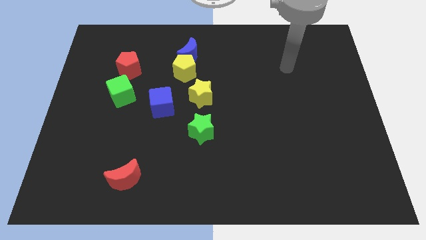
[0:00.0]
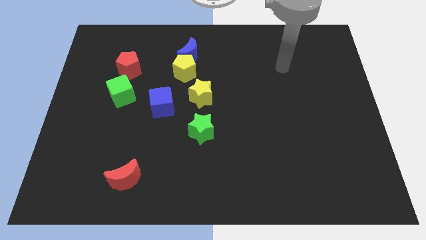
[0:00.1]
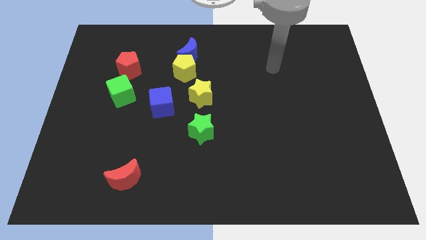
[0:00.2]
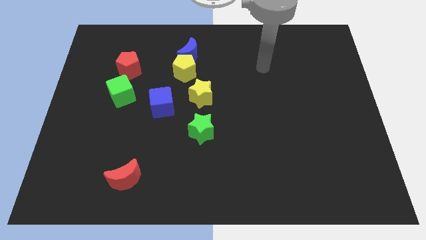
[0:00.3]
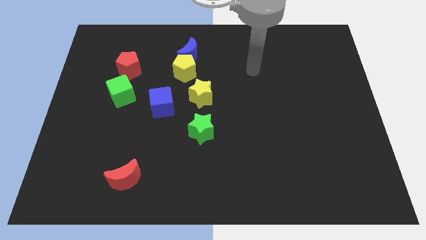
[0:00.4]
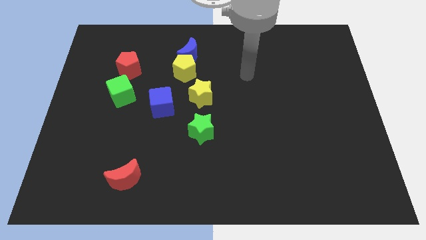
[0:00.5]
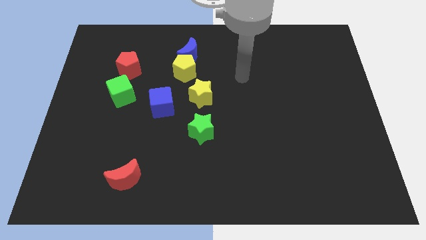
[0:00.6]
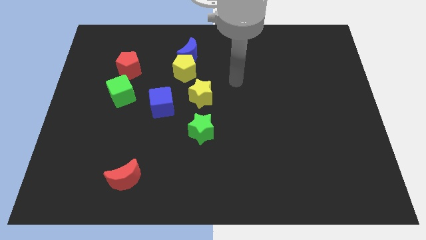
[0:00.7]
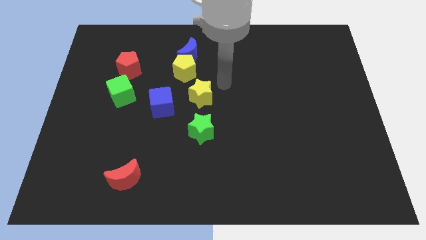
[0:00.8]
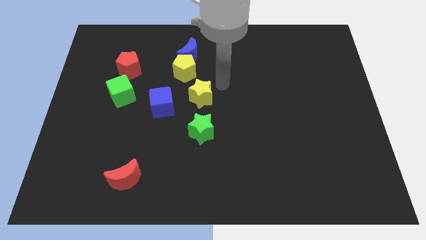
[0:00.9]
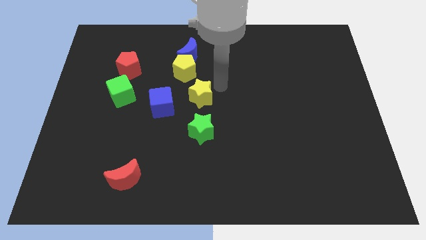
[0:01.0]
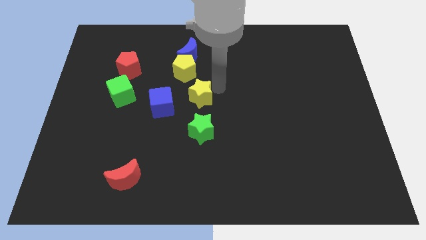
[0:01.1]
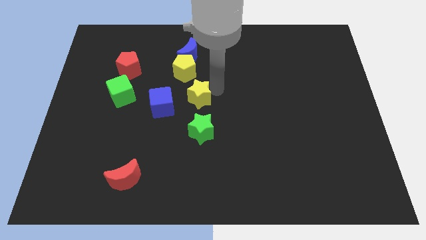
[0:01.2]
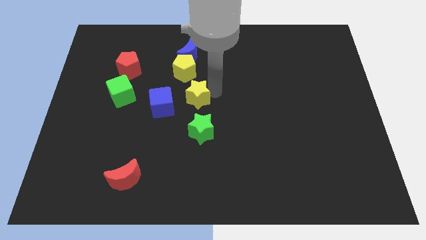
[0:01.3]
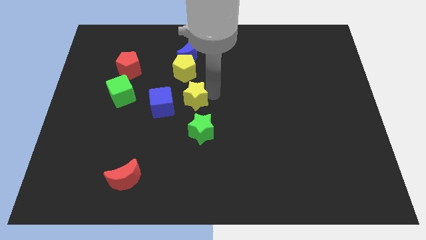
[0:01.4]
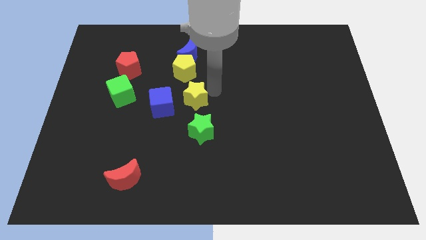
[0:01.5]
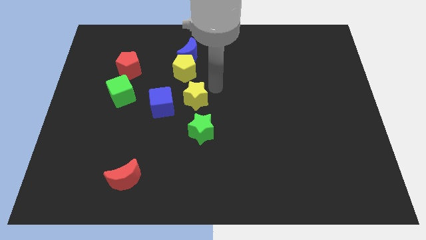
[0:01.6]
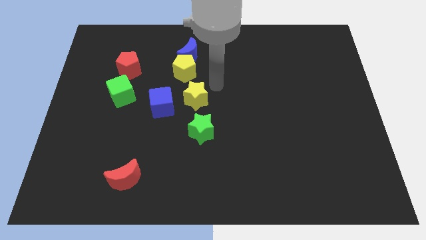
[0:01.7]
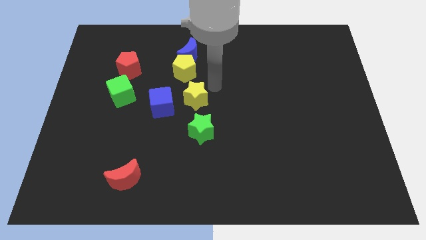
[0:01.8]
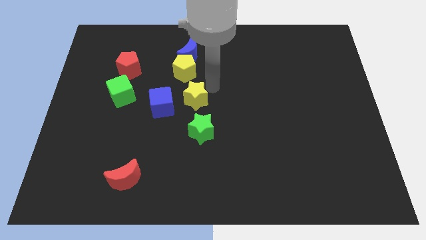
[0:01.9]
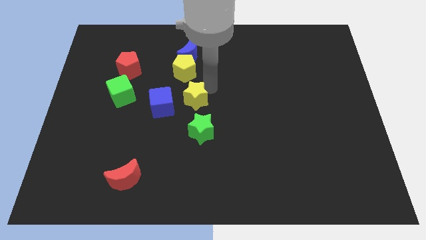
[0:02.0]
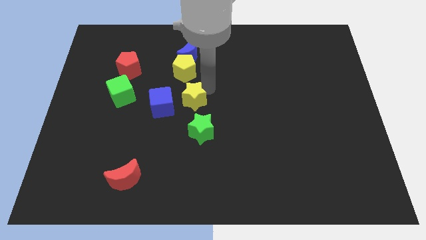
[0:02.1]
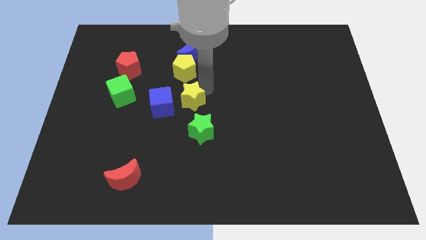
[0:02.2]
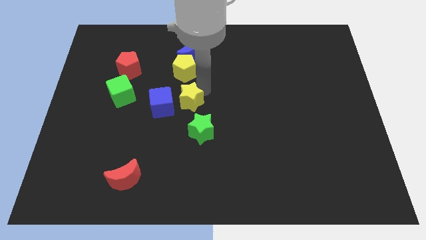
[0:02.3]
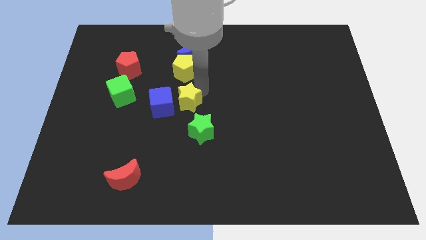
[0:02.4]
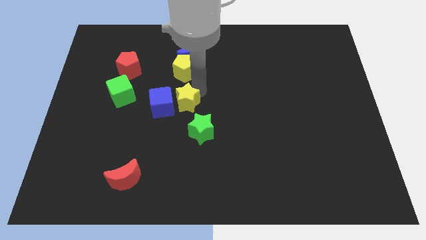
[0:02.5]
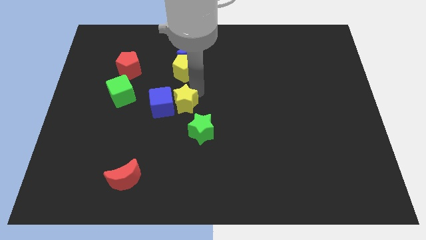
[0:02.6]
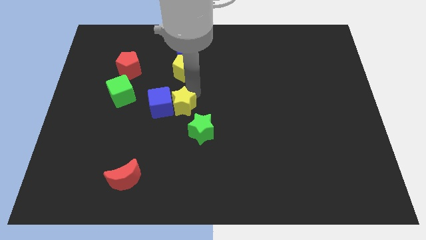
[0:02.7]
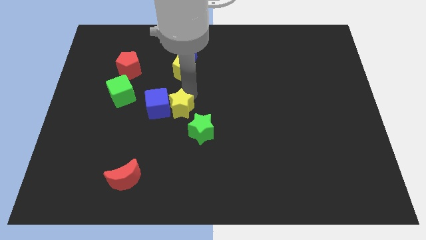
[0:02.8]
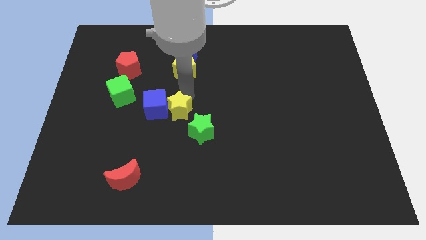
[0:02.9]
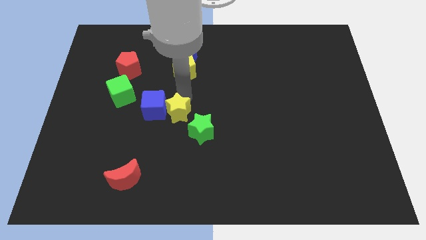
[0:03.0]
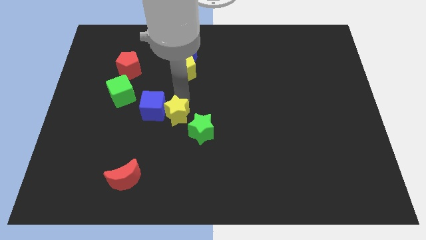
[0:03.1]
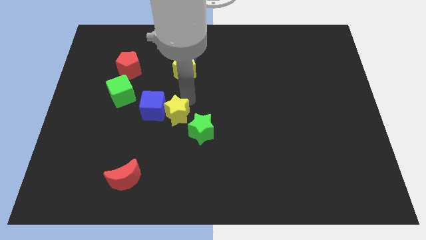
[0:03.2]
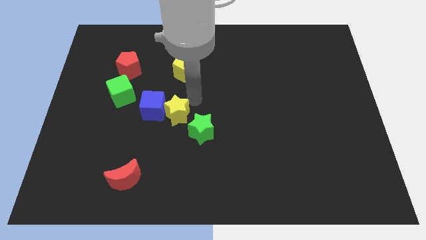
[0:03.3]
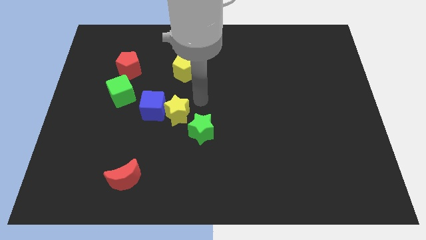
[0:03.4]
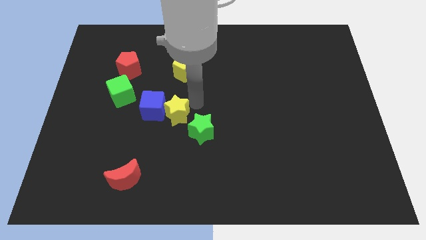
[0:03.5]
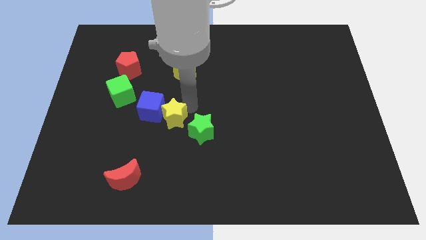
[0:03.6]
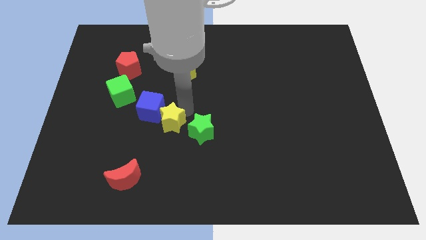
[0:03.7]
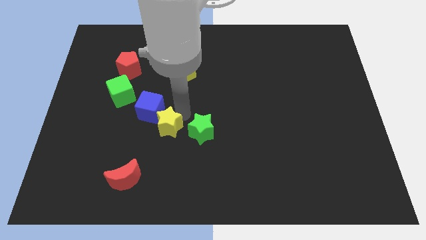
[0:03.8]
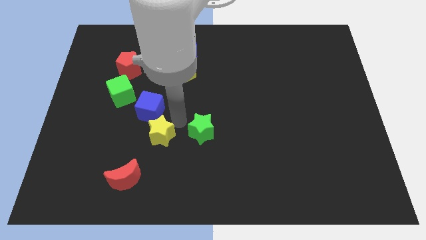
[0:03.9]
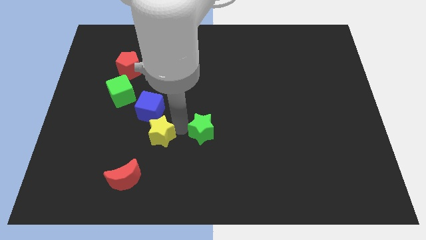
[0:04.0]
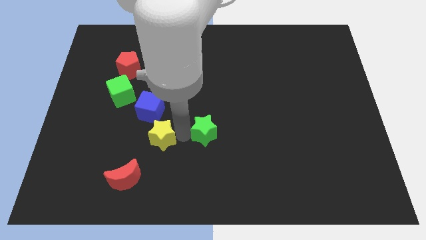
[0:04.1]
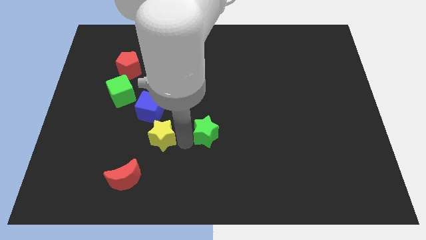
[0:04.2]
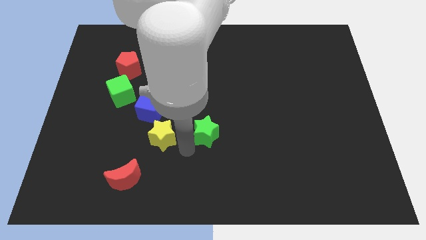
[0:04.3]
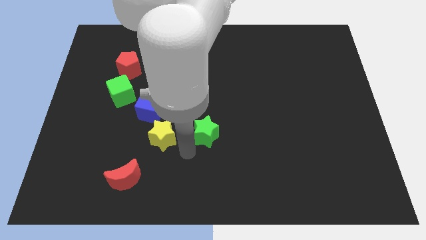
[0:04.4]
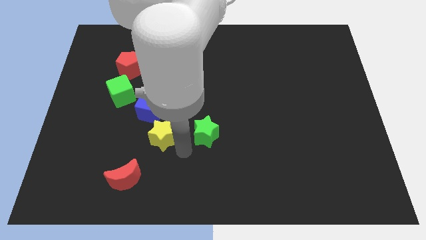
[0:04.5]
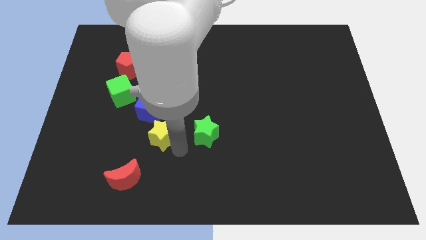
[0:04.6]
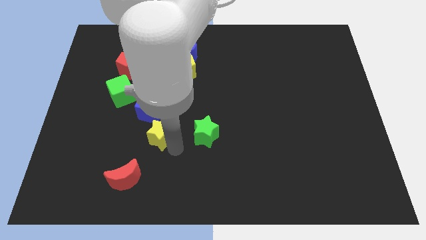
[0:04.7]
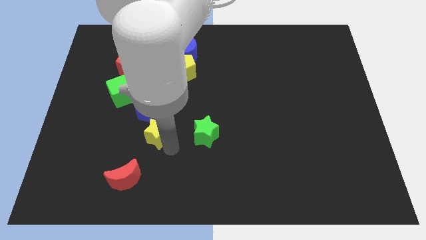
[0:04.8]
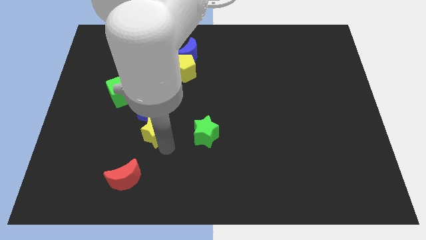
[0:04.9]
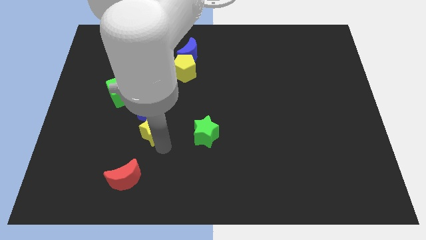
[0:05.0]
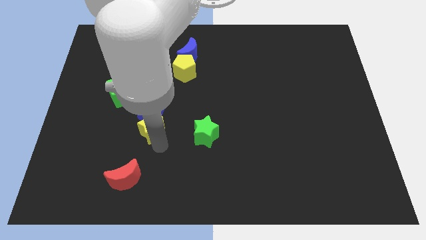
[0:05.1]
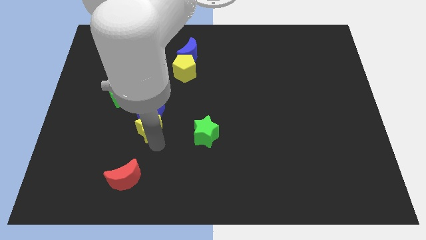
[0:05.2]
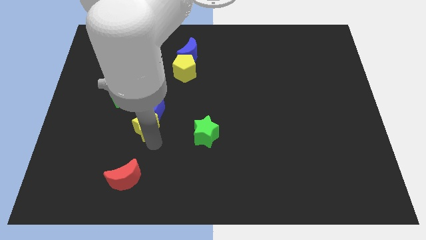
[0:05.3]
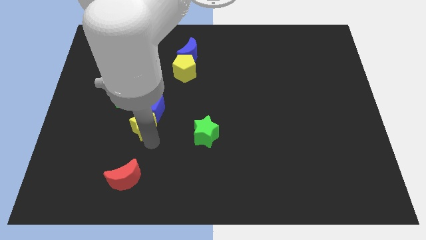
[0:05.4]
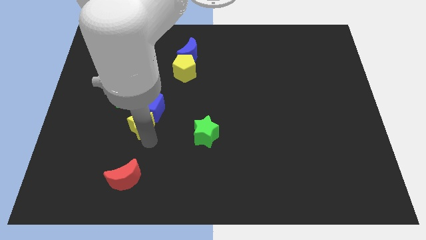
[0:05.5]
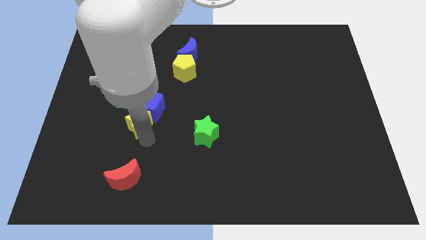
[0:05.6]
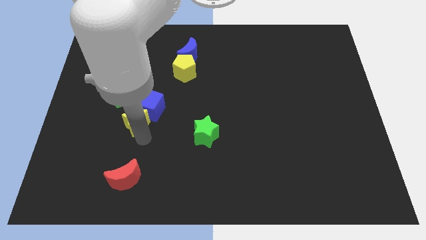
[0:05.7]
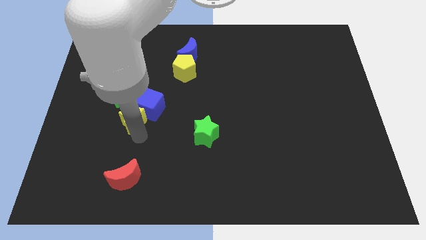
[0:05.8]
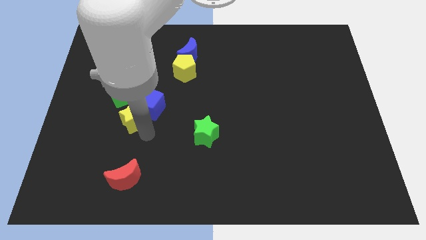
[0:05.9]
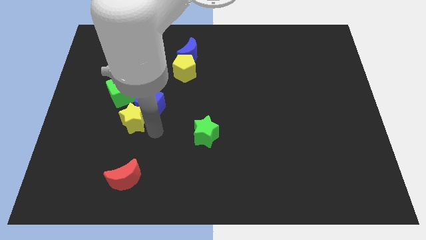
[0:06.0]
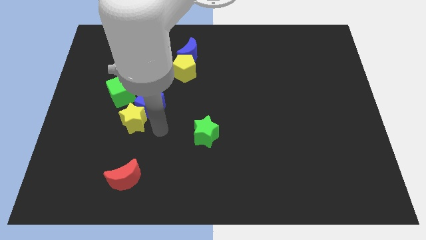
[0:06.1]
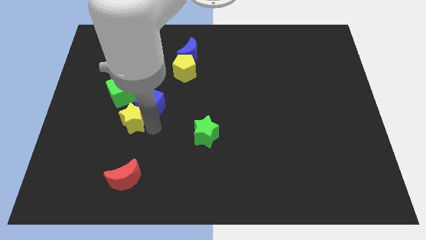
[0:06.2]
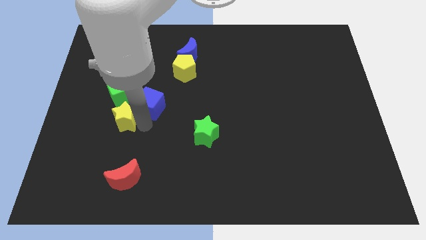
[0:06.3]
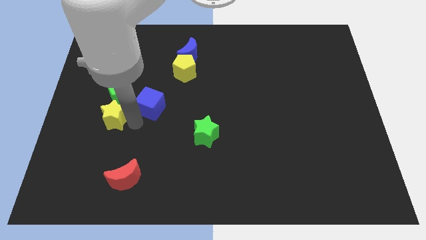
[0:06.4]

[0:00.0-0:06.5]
slide the yellow star to the bottom left of the green cube

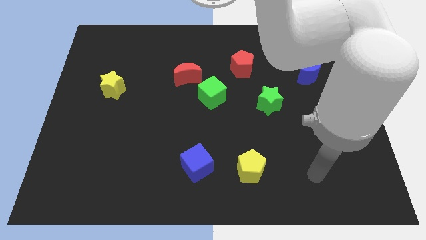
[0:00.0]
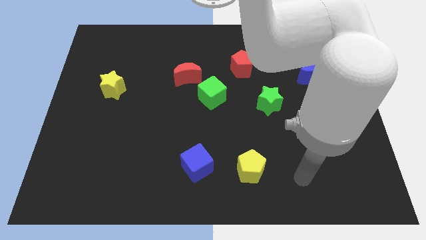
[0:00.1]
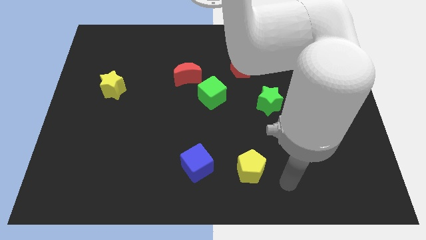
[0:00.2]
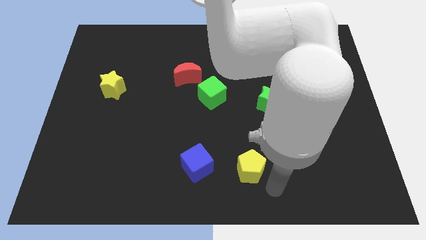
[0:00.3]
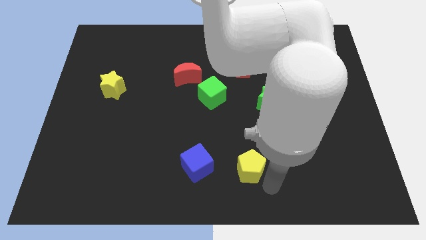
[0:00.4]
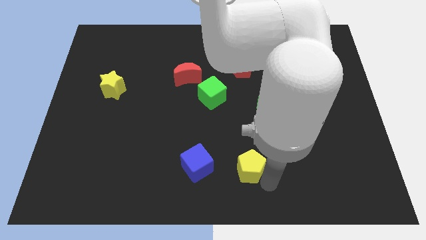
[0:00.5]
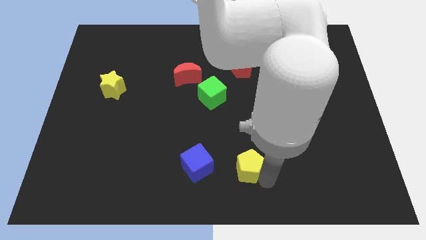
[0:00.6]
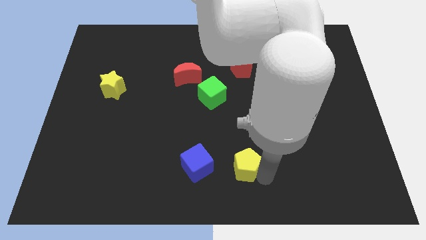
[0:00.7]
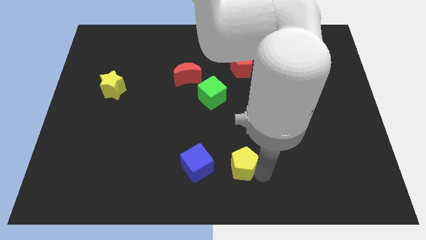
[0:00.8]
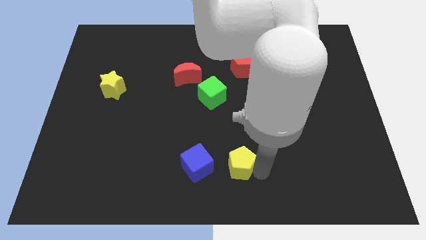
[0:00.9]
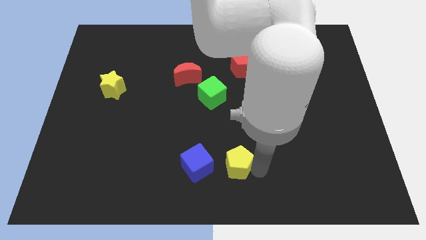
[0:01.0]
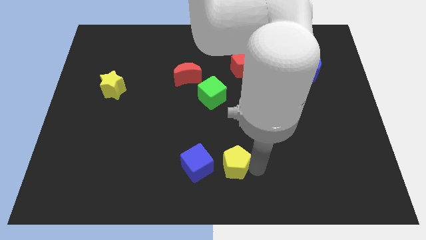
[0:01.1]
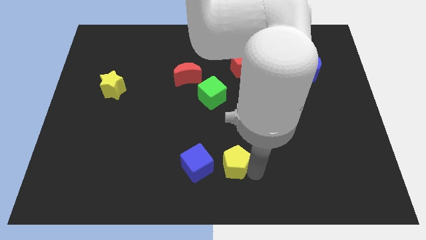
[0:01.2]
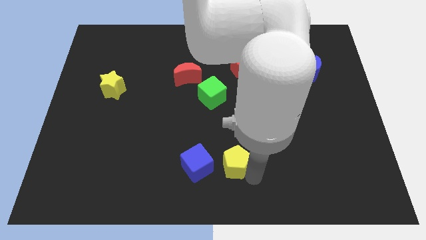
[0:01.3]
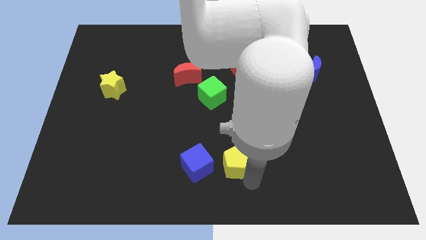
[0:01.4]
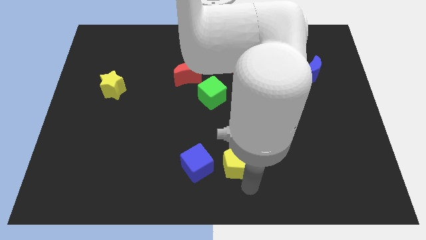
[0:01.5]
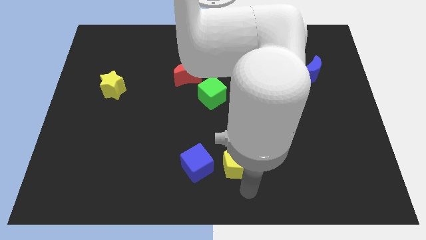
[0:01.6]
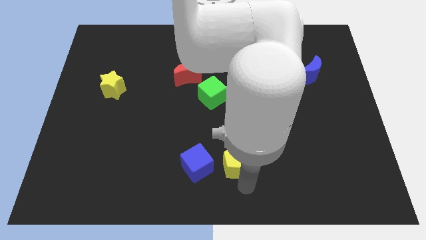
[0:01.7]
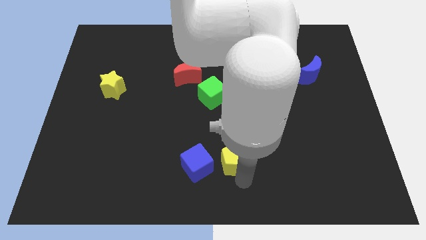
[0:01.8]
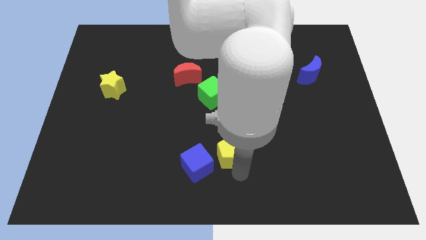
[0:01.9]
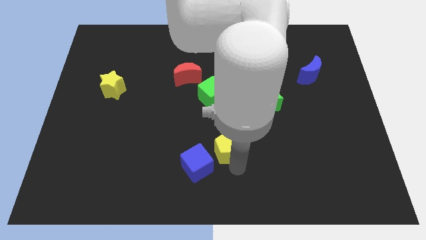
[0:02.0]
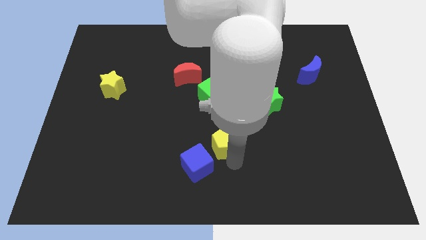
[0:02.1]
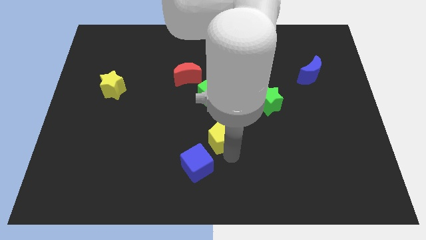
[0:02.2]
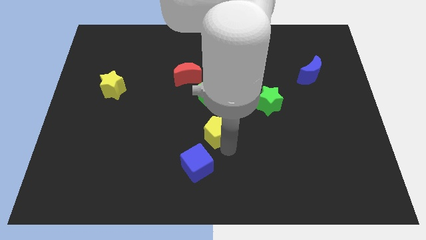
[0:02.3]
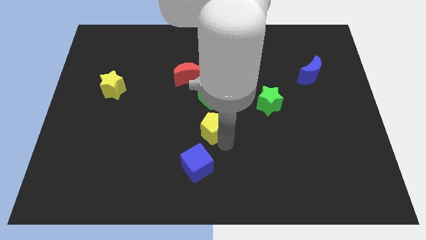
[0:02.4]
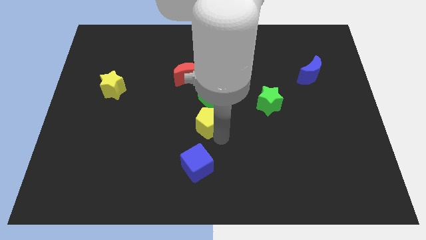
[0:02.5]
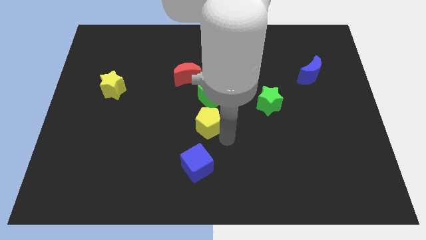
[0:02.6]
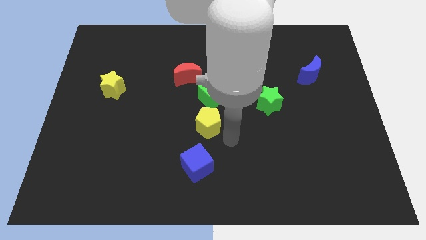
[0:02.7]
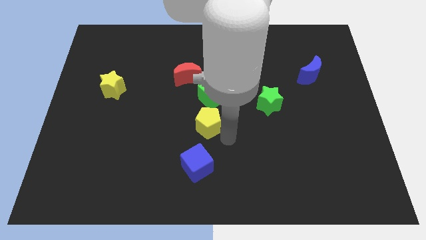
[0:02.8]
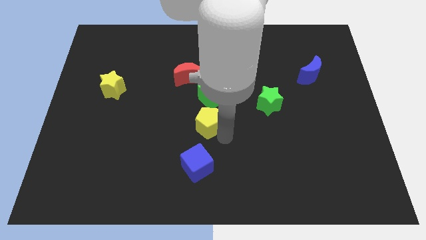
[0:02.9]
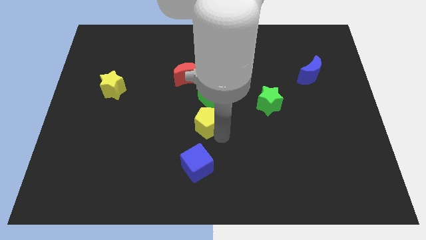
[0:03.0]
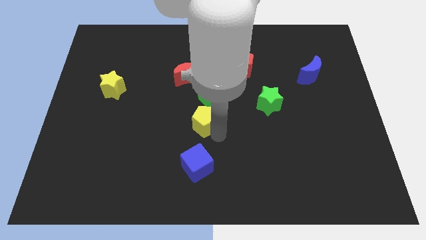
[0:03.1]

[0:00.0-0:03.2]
slide the yellow pentagon to the bottom left side of the green cube
